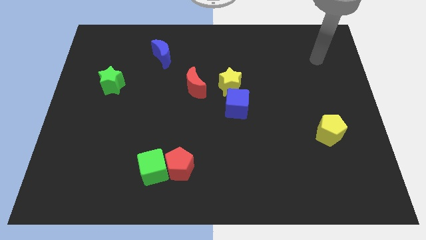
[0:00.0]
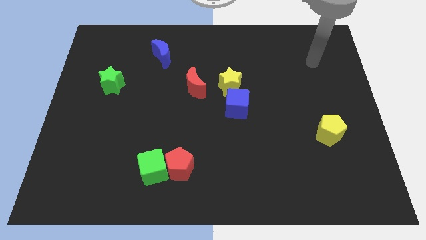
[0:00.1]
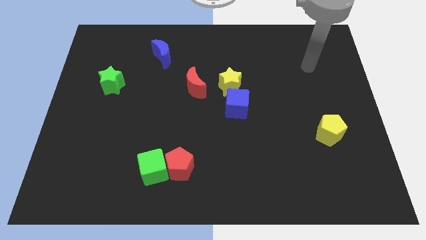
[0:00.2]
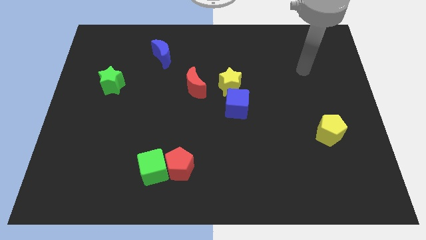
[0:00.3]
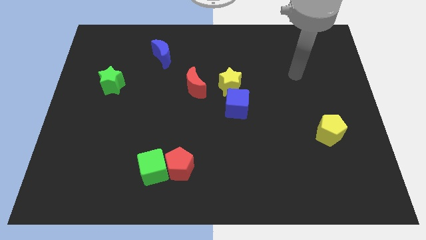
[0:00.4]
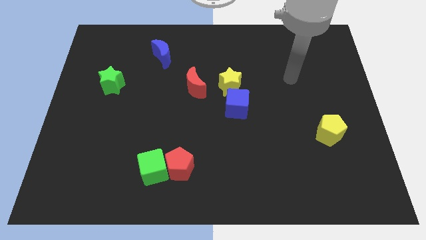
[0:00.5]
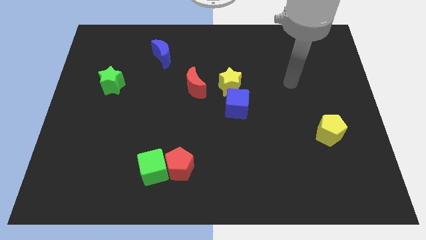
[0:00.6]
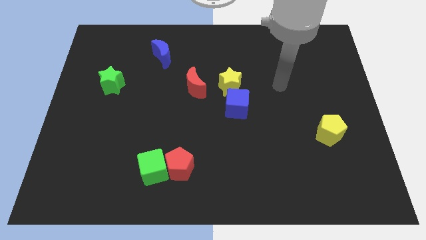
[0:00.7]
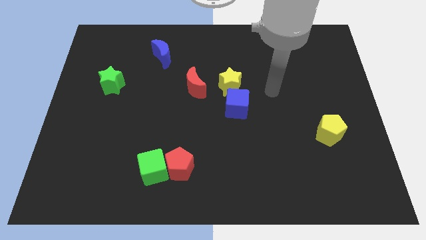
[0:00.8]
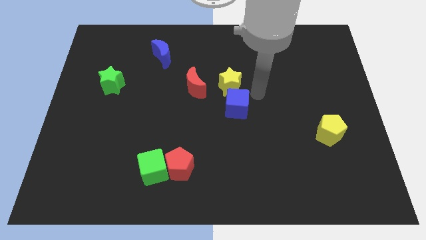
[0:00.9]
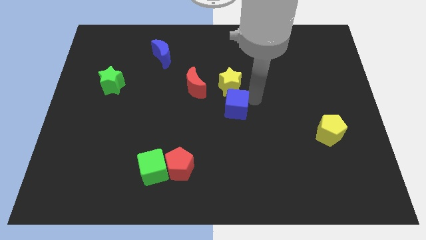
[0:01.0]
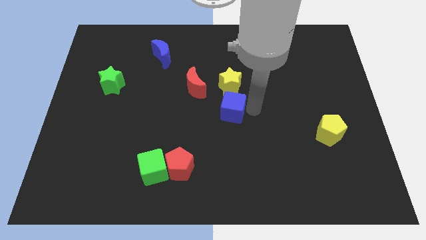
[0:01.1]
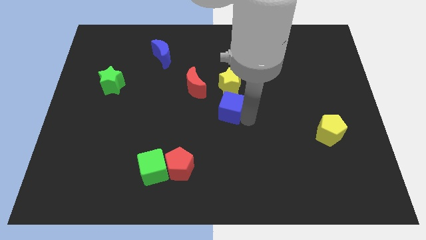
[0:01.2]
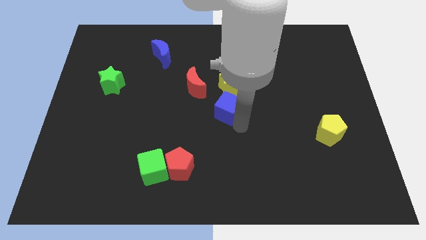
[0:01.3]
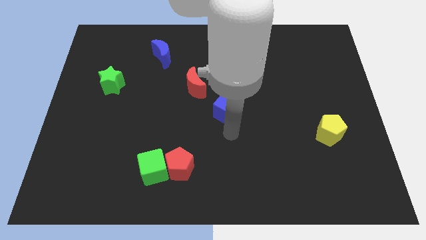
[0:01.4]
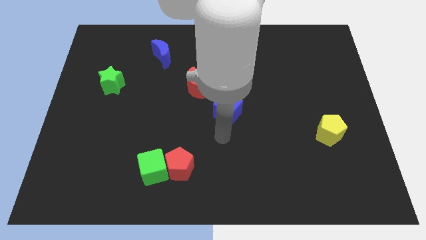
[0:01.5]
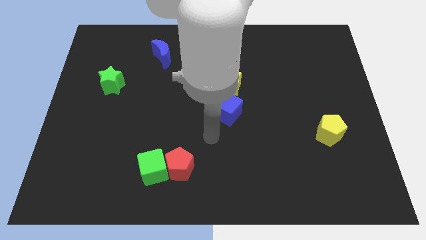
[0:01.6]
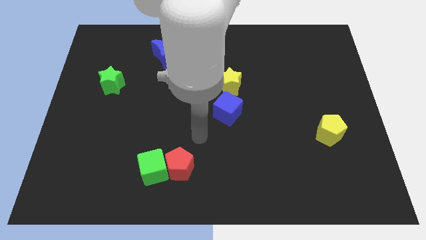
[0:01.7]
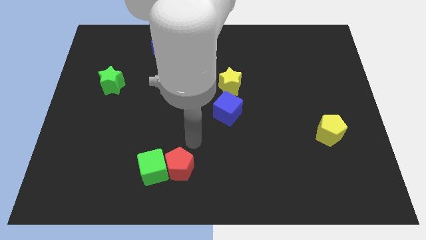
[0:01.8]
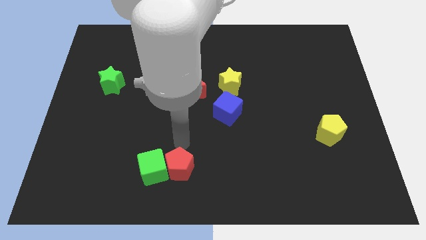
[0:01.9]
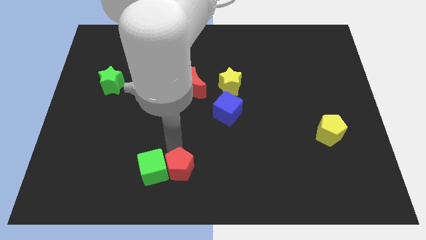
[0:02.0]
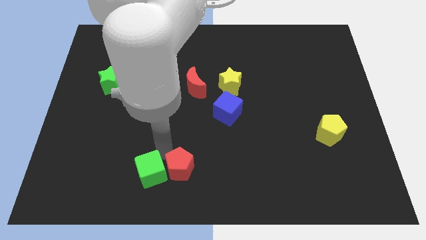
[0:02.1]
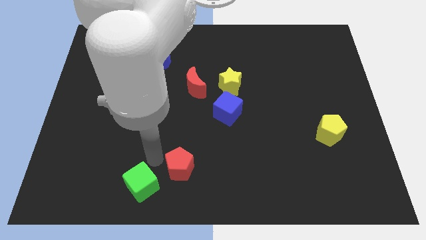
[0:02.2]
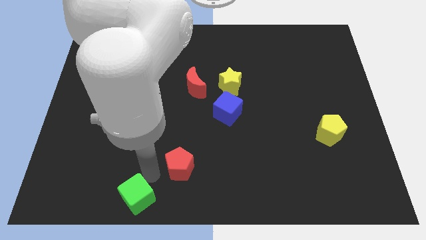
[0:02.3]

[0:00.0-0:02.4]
move the red pentagon away from the green cube

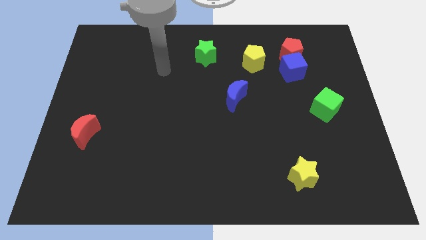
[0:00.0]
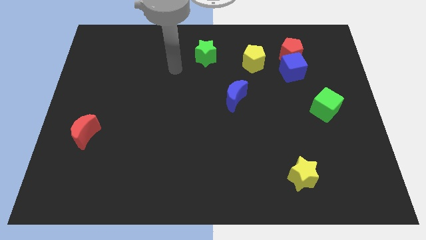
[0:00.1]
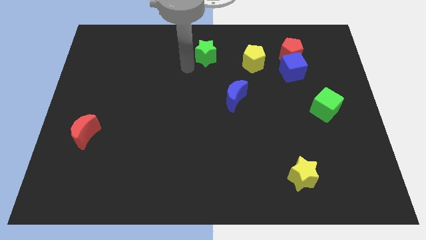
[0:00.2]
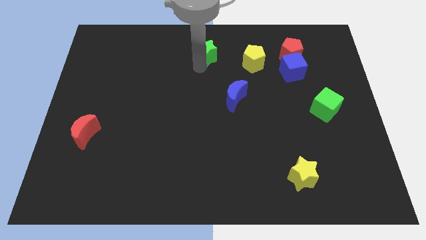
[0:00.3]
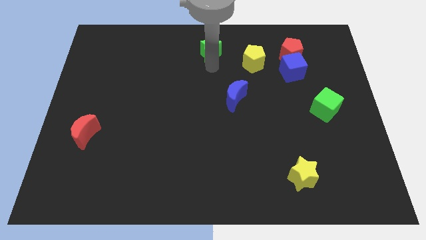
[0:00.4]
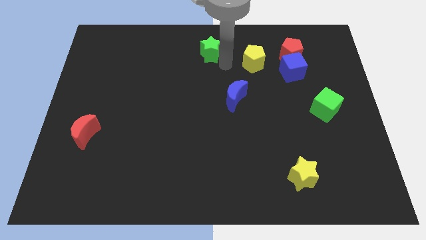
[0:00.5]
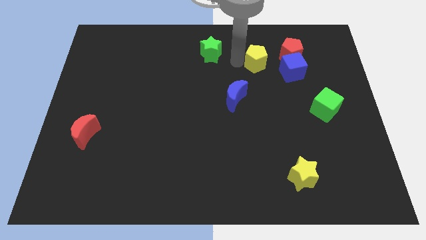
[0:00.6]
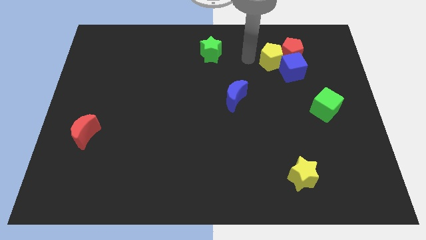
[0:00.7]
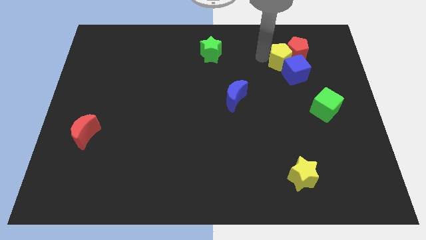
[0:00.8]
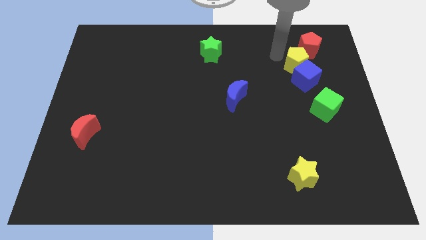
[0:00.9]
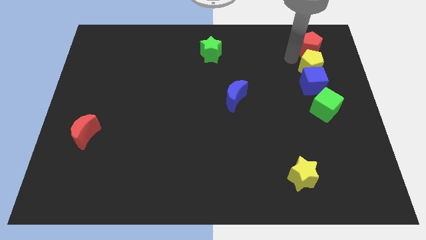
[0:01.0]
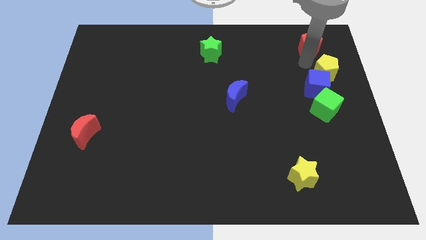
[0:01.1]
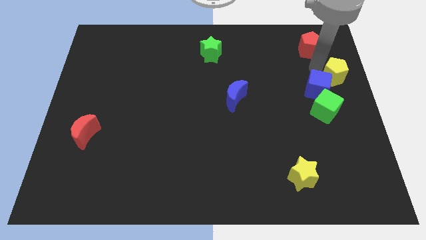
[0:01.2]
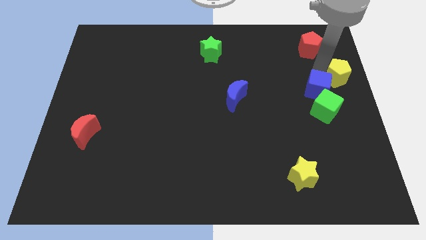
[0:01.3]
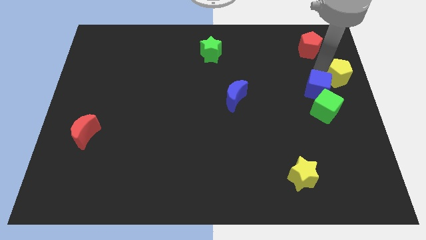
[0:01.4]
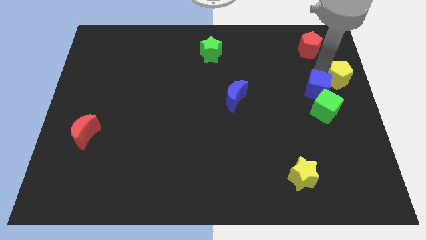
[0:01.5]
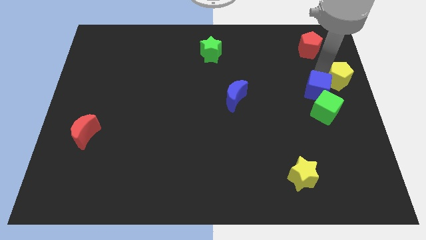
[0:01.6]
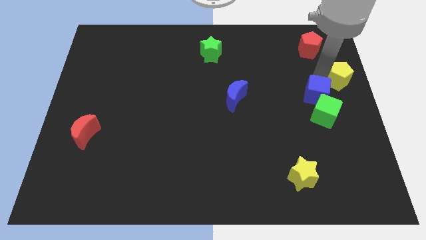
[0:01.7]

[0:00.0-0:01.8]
pull the blue cube apart from the red pentagon and yellow pentagon

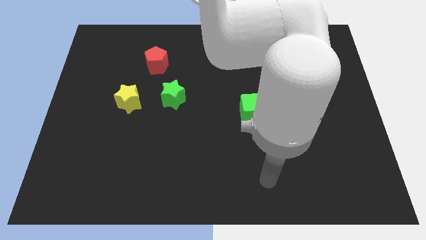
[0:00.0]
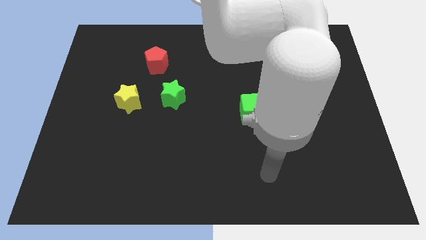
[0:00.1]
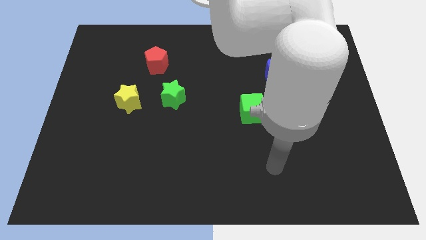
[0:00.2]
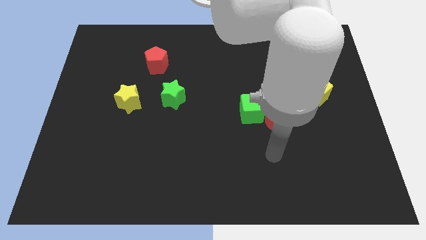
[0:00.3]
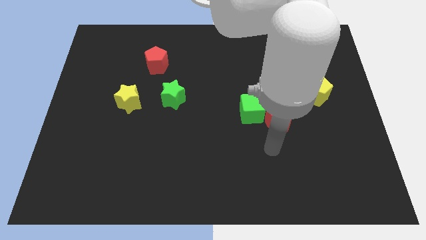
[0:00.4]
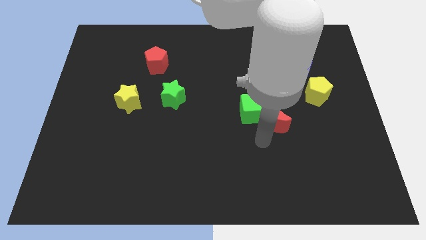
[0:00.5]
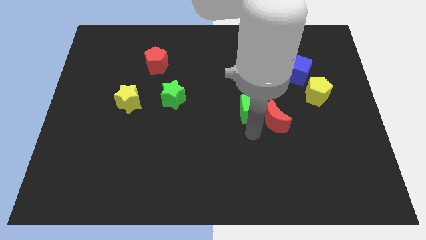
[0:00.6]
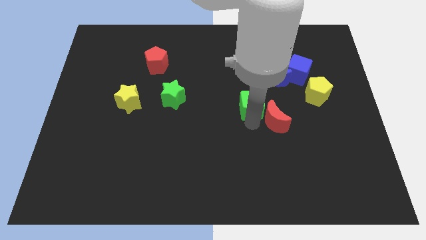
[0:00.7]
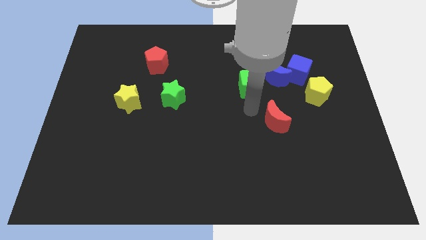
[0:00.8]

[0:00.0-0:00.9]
separate the red moon from the green cube

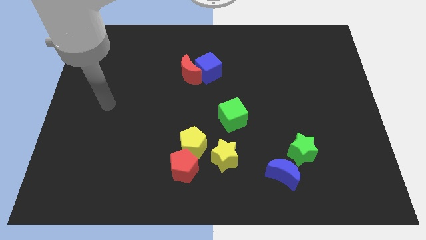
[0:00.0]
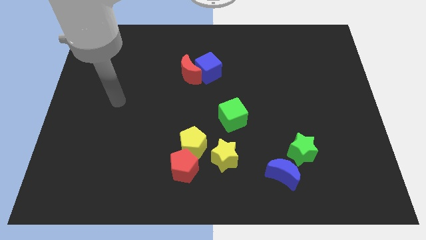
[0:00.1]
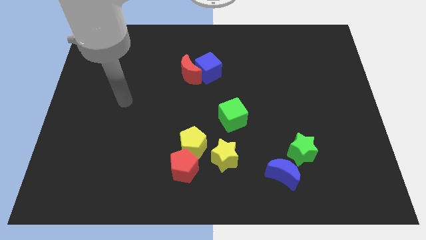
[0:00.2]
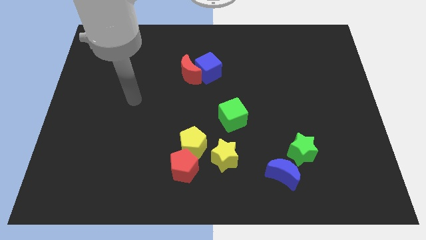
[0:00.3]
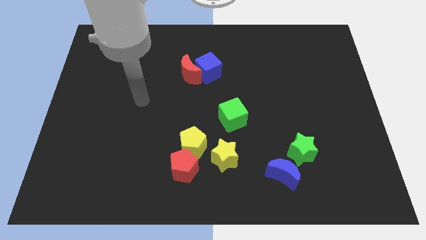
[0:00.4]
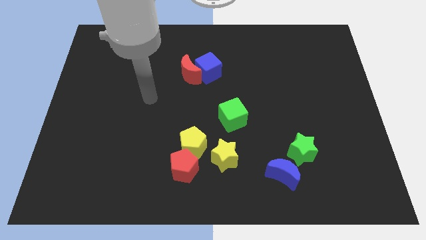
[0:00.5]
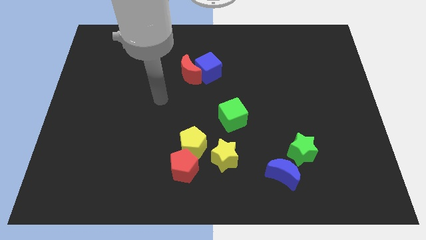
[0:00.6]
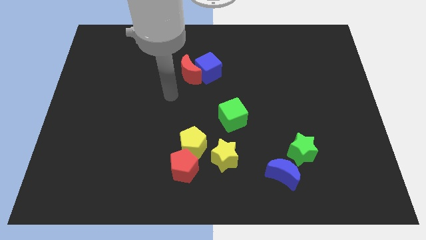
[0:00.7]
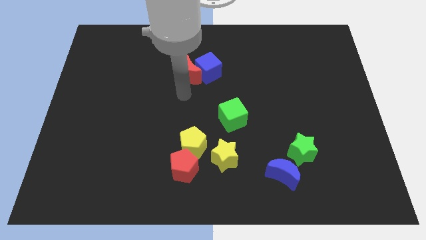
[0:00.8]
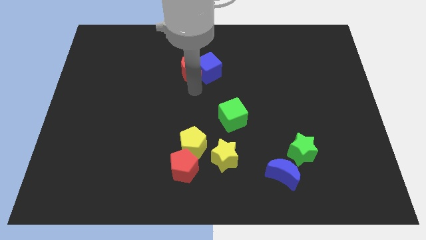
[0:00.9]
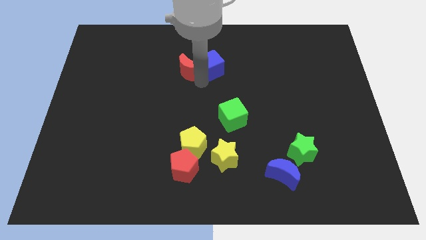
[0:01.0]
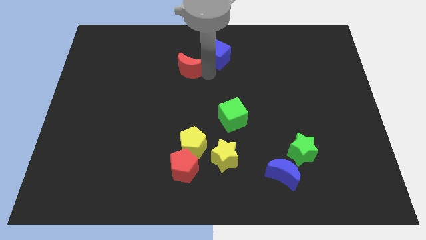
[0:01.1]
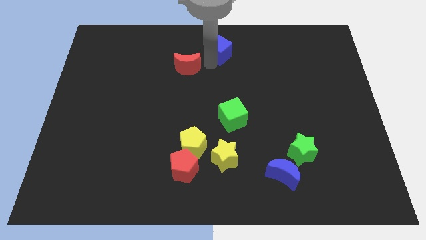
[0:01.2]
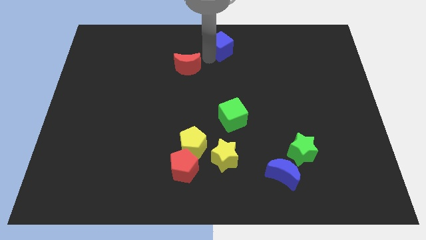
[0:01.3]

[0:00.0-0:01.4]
pull the red moon apart from the blue cube

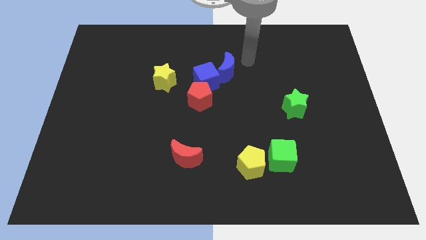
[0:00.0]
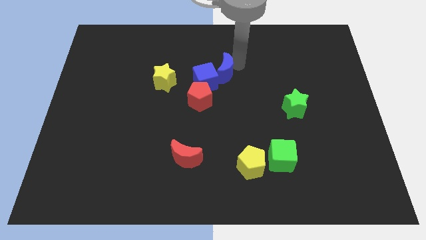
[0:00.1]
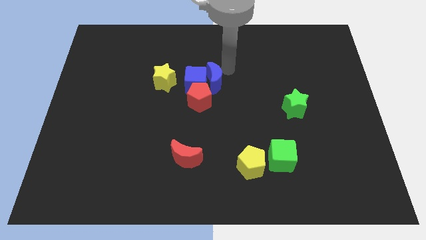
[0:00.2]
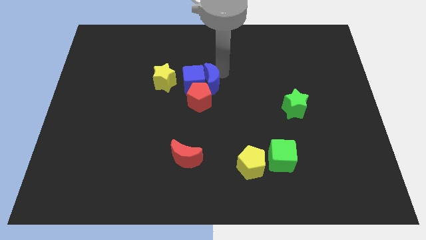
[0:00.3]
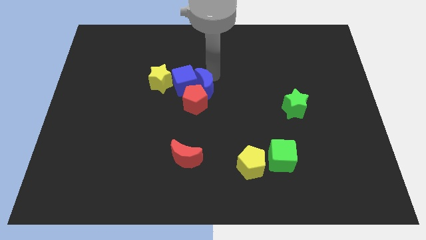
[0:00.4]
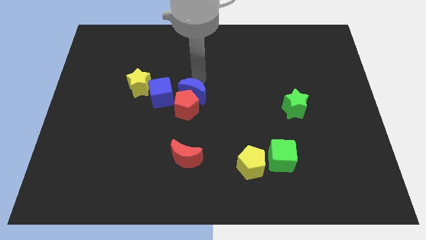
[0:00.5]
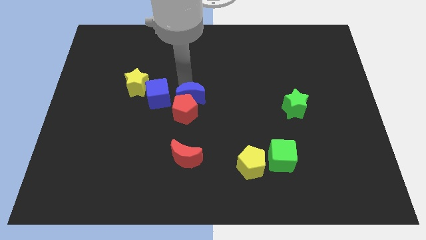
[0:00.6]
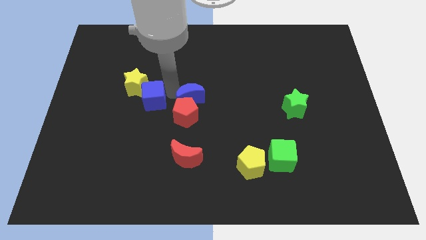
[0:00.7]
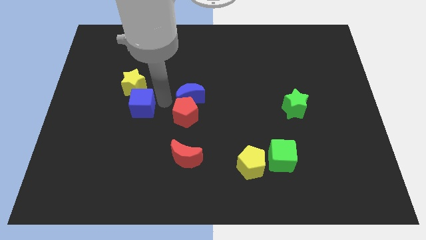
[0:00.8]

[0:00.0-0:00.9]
move the red pentagon away from the blue cube

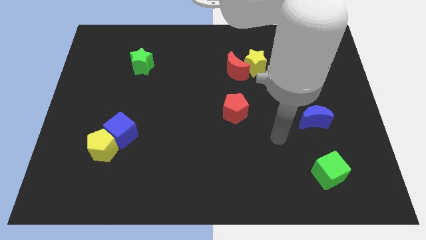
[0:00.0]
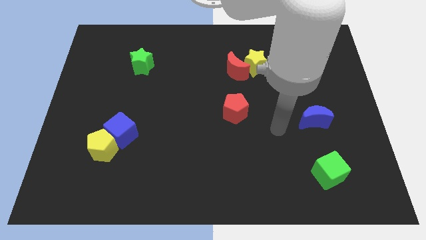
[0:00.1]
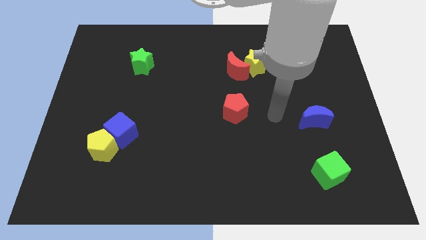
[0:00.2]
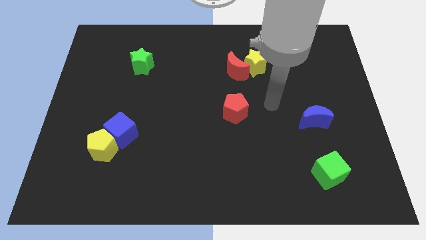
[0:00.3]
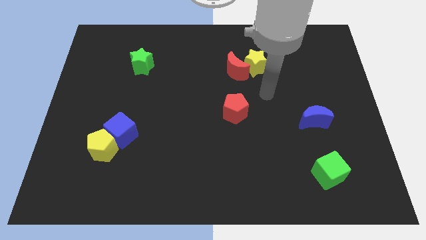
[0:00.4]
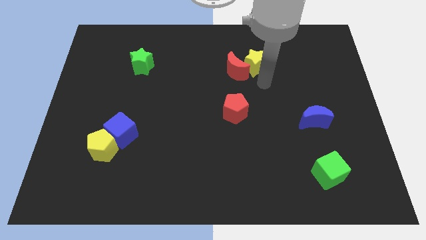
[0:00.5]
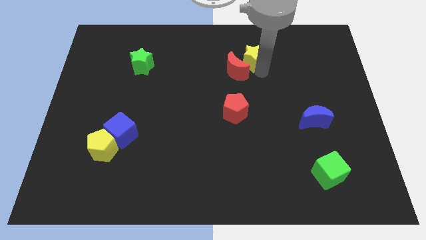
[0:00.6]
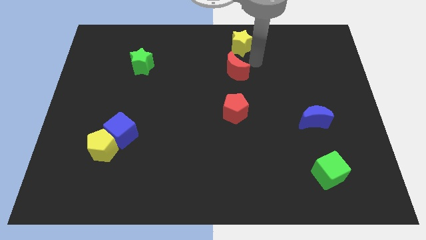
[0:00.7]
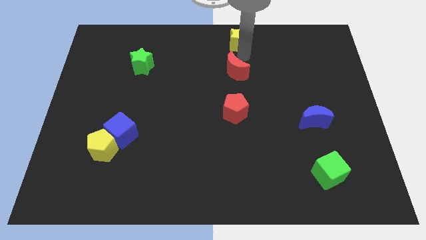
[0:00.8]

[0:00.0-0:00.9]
move the red moon away from the yellow star

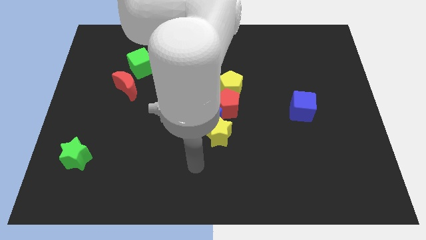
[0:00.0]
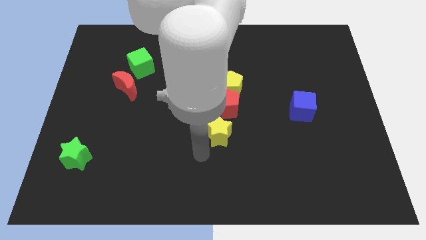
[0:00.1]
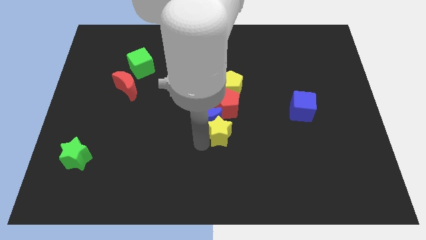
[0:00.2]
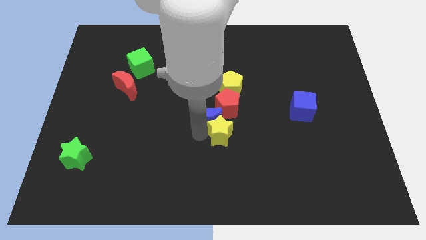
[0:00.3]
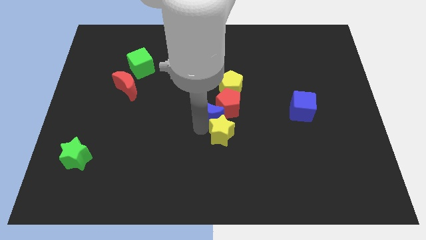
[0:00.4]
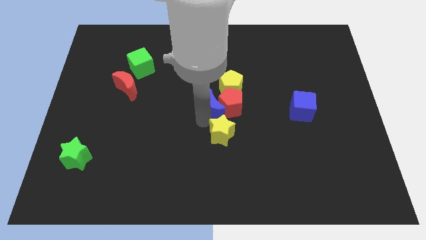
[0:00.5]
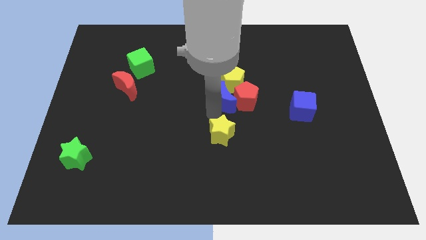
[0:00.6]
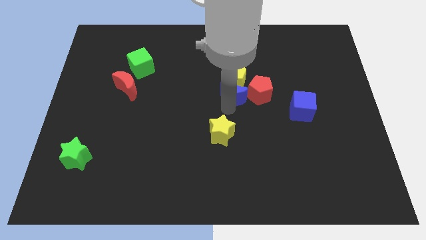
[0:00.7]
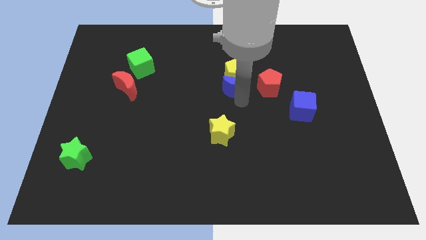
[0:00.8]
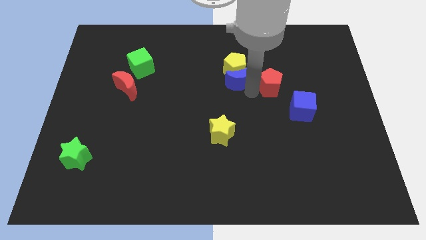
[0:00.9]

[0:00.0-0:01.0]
move the yellow pentagon away from the red pentagon
